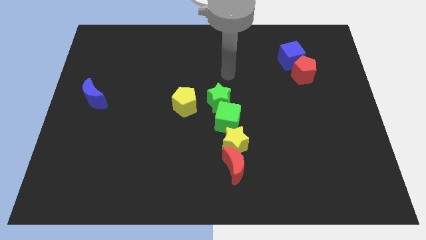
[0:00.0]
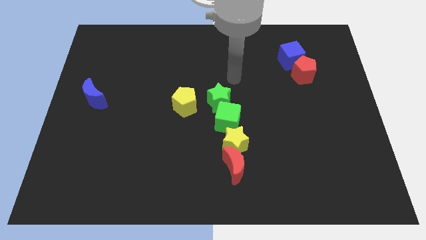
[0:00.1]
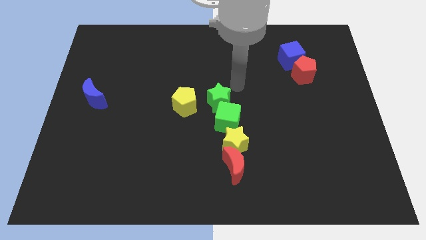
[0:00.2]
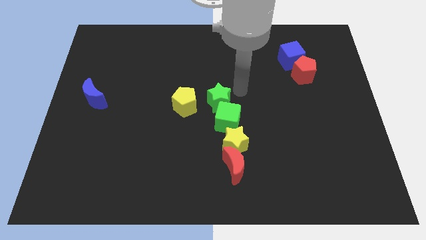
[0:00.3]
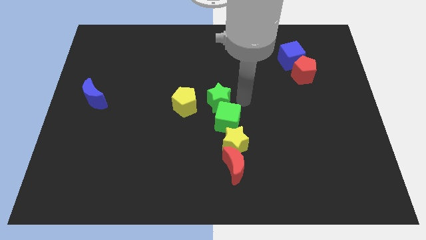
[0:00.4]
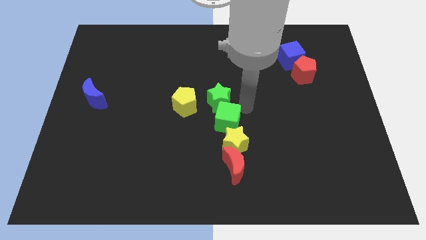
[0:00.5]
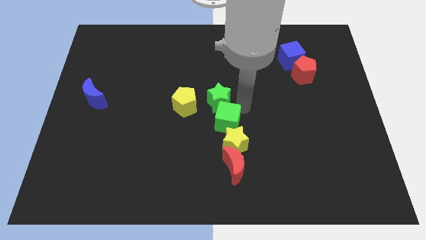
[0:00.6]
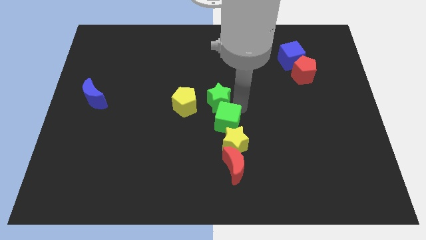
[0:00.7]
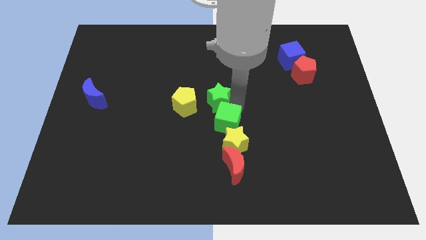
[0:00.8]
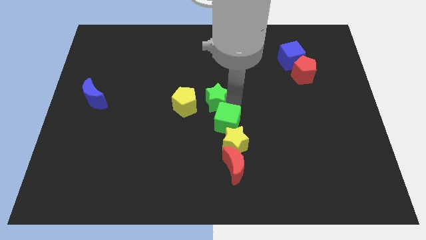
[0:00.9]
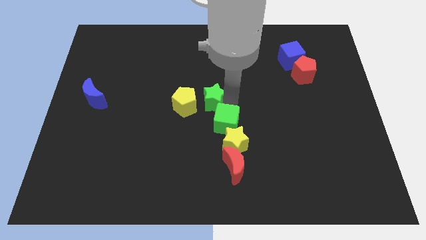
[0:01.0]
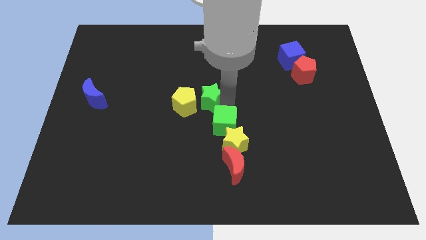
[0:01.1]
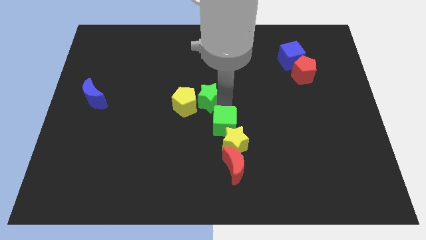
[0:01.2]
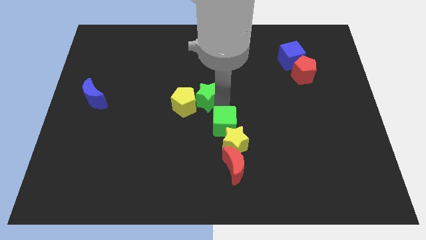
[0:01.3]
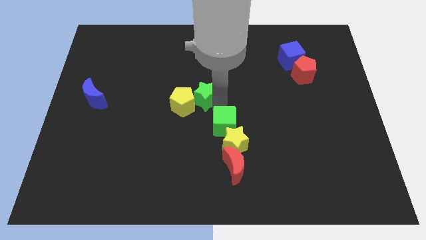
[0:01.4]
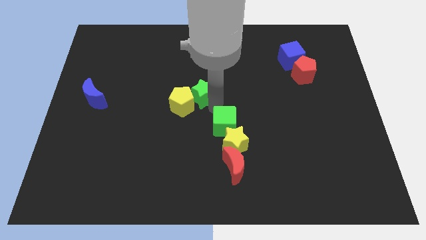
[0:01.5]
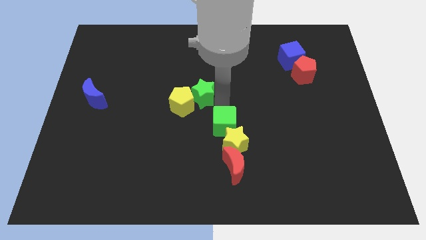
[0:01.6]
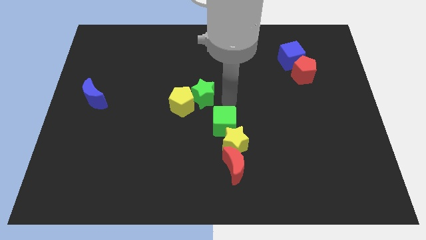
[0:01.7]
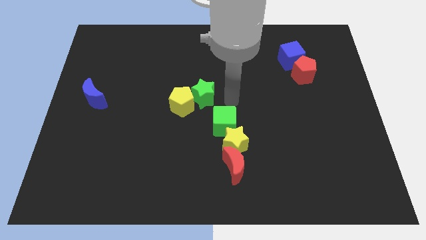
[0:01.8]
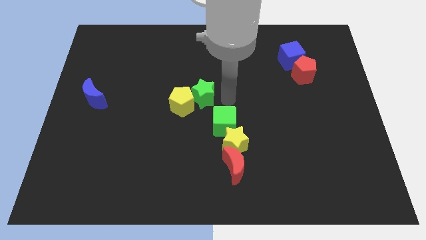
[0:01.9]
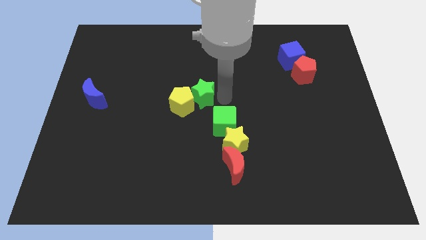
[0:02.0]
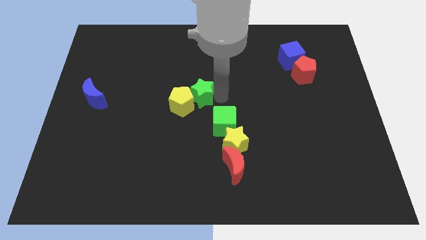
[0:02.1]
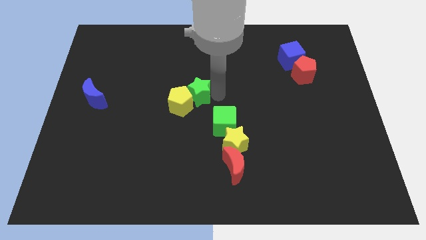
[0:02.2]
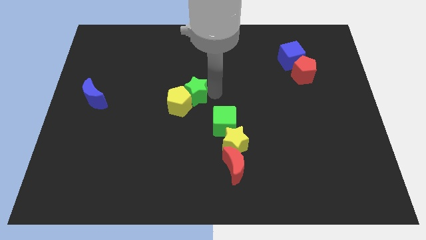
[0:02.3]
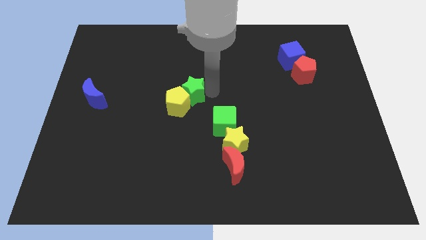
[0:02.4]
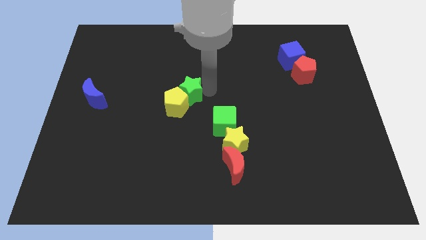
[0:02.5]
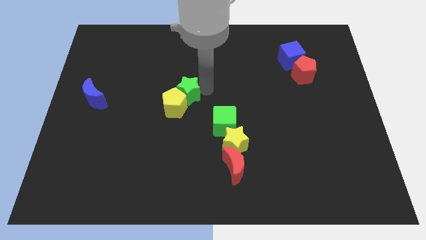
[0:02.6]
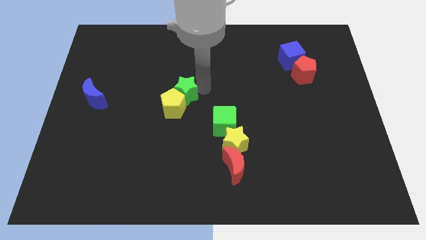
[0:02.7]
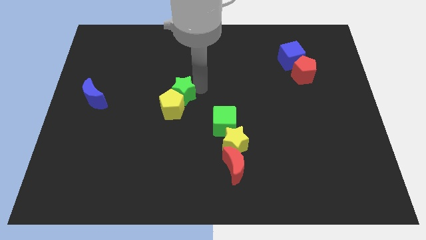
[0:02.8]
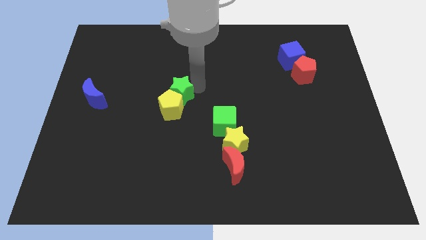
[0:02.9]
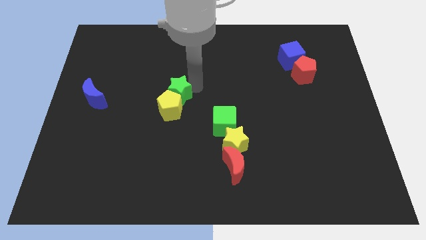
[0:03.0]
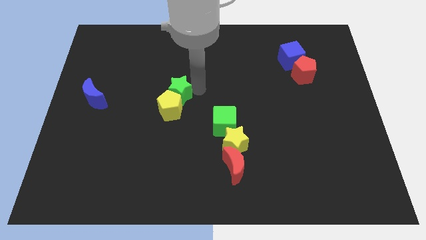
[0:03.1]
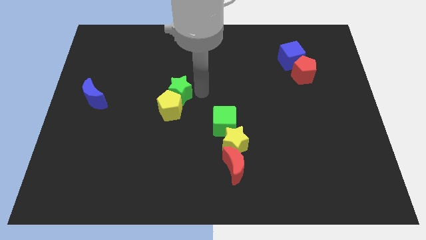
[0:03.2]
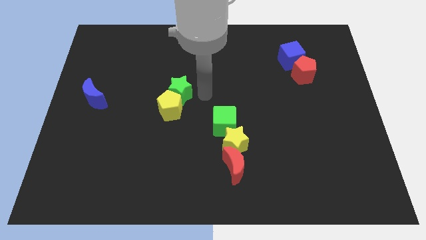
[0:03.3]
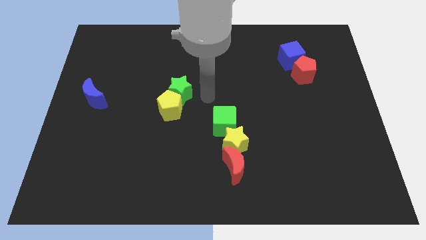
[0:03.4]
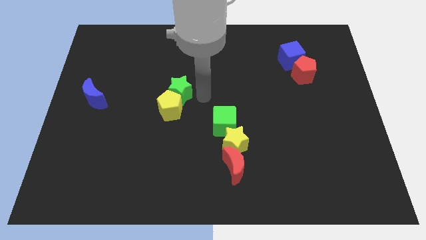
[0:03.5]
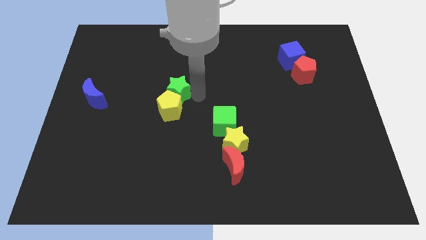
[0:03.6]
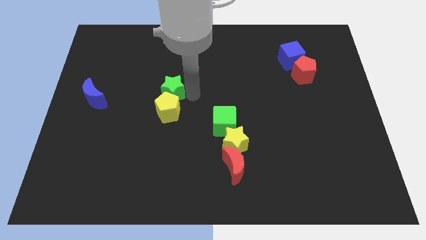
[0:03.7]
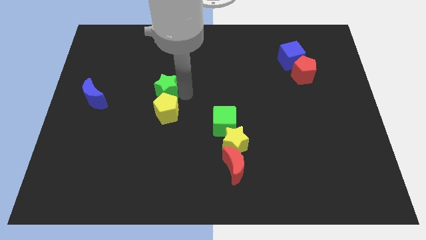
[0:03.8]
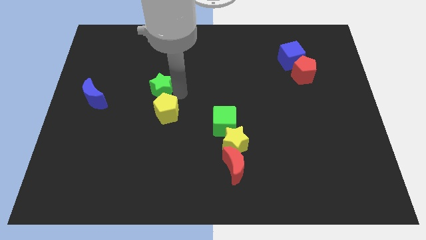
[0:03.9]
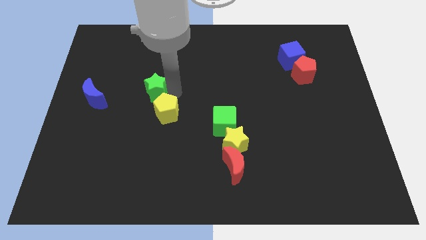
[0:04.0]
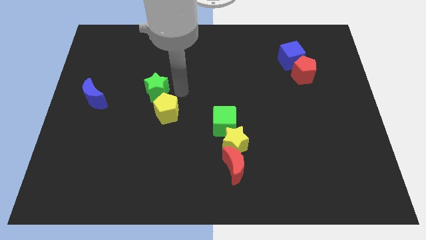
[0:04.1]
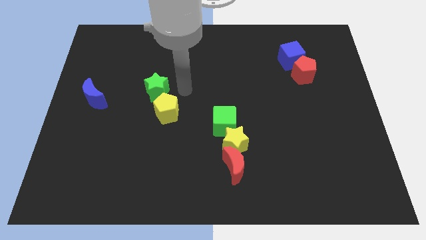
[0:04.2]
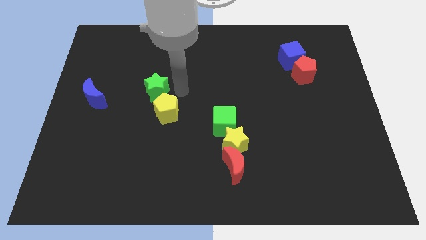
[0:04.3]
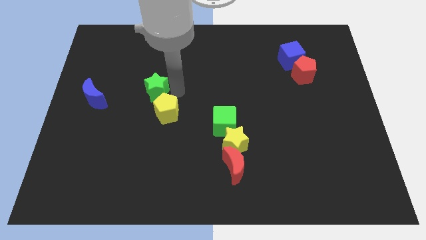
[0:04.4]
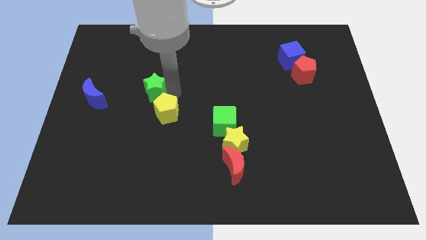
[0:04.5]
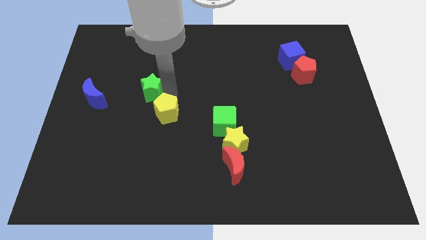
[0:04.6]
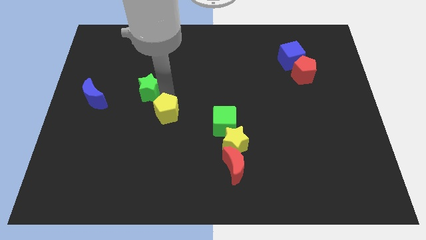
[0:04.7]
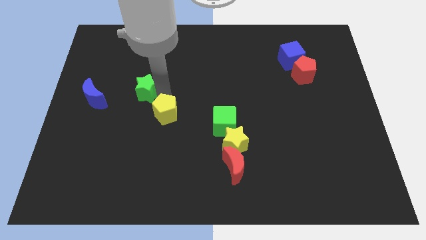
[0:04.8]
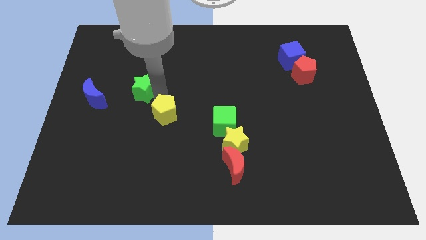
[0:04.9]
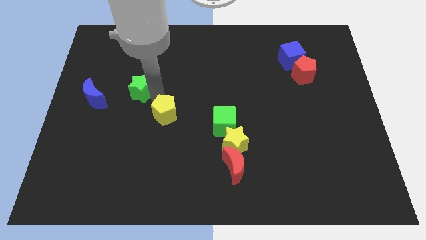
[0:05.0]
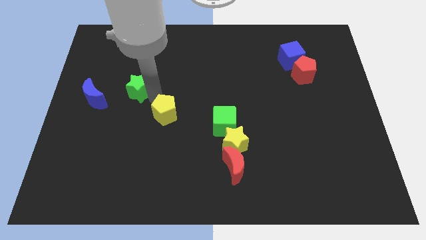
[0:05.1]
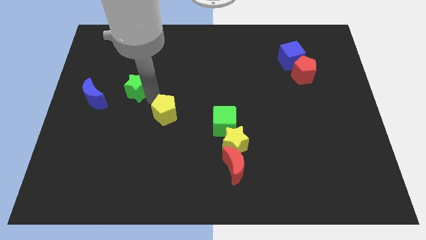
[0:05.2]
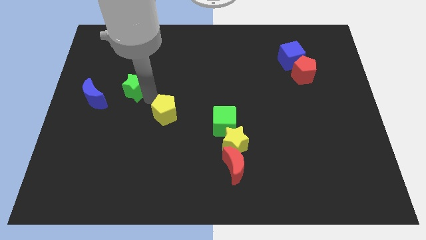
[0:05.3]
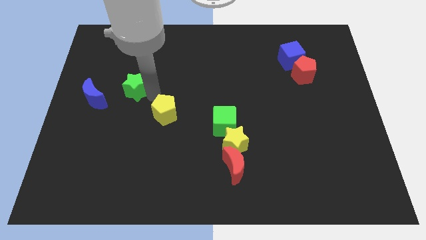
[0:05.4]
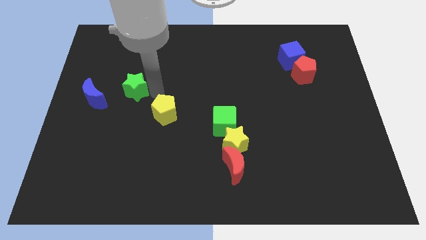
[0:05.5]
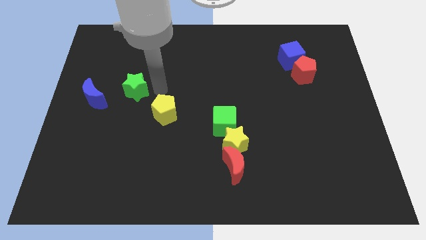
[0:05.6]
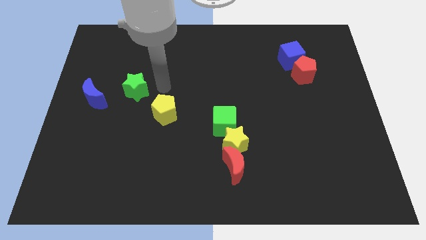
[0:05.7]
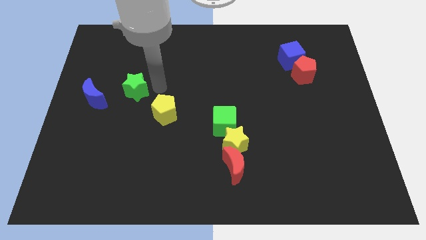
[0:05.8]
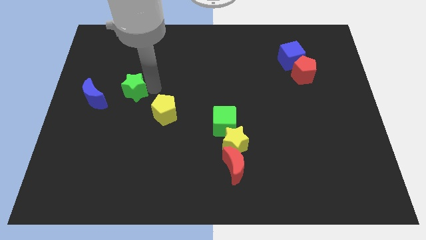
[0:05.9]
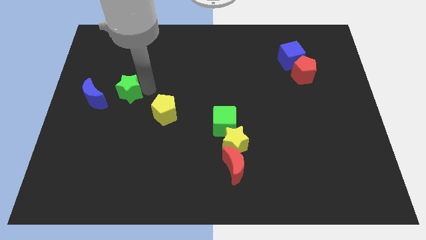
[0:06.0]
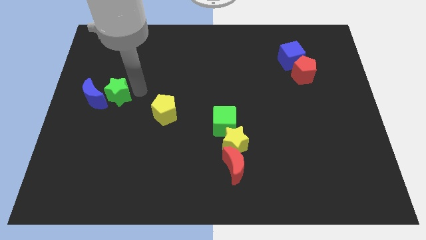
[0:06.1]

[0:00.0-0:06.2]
move the green star towards the blue moon

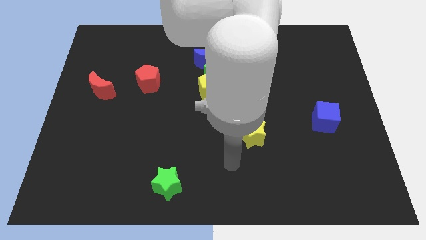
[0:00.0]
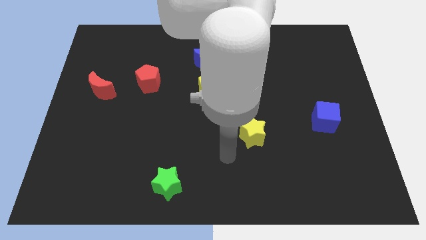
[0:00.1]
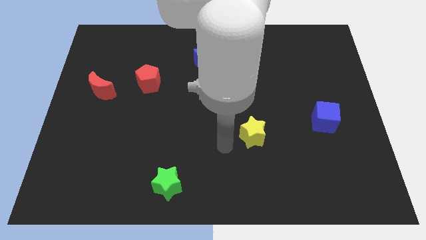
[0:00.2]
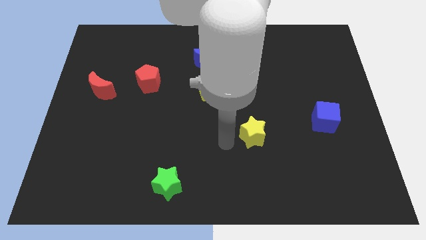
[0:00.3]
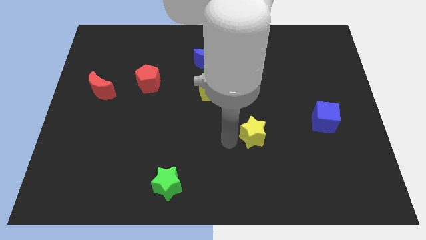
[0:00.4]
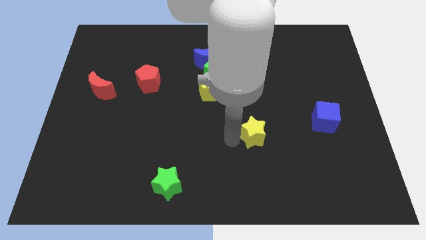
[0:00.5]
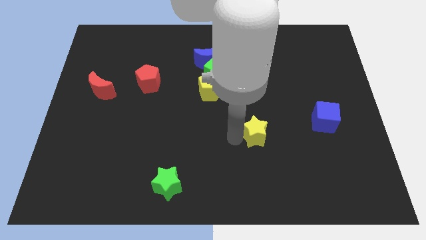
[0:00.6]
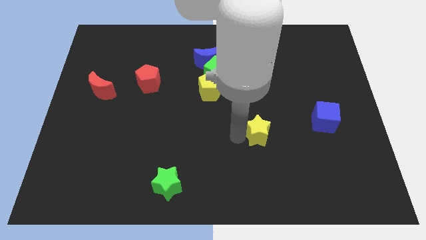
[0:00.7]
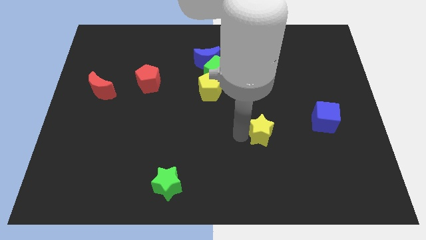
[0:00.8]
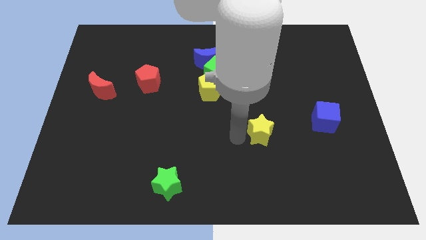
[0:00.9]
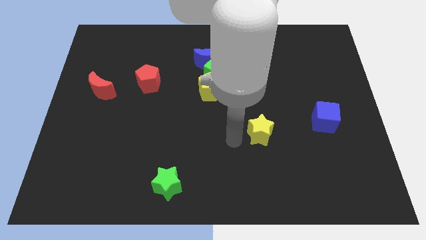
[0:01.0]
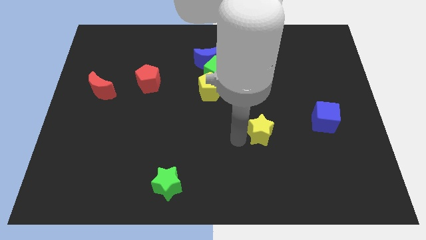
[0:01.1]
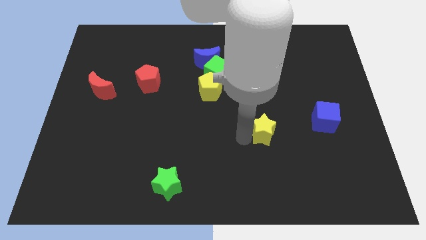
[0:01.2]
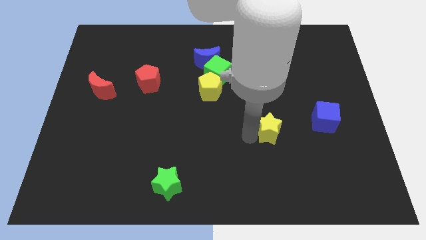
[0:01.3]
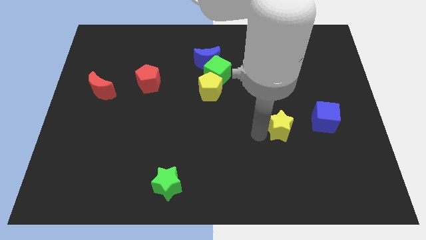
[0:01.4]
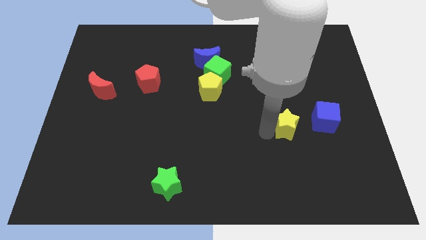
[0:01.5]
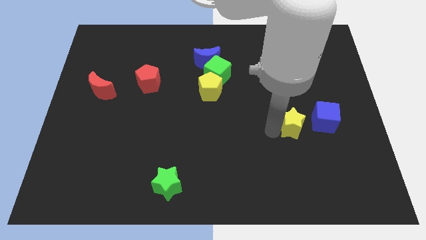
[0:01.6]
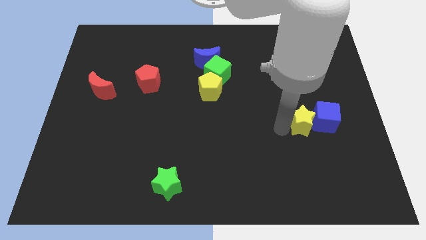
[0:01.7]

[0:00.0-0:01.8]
slide the yellow star towards the blue cube
